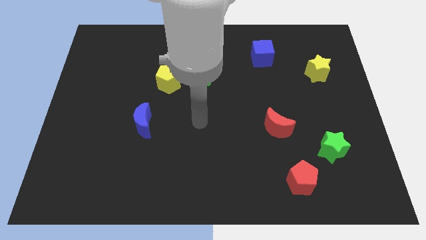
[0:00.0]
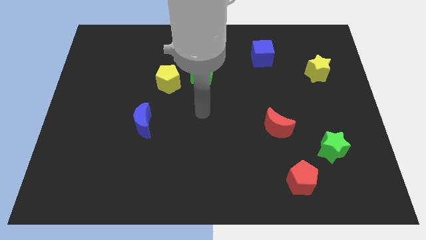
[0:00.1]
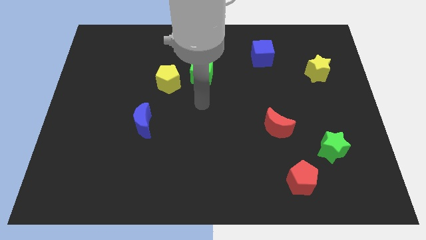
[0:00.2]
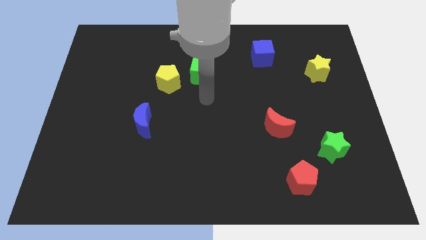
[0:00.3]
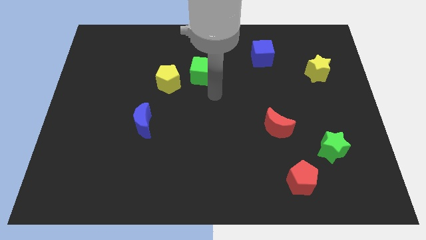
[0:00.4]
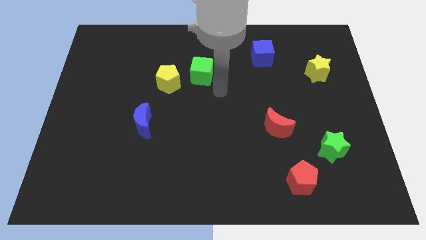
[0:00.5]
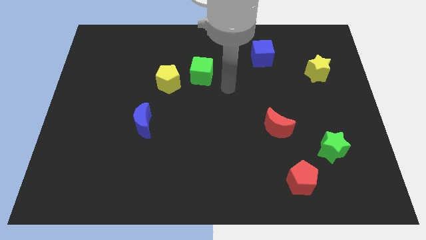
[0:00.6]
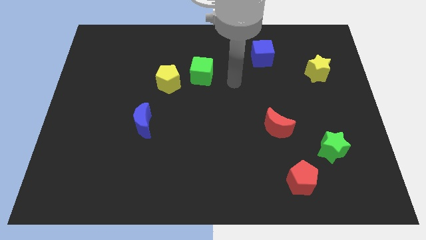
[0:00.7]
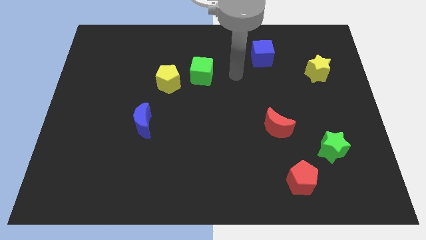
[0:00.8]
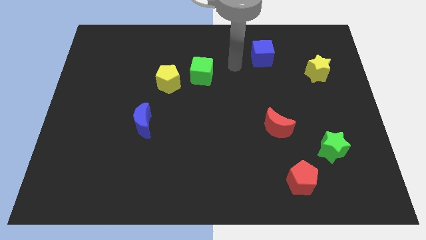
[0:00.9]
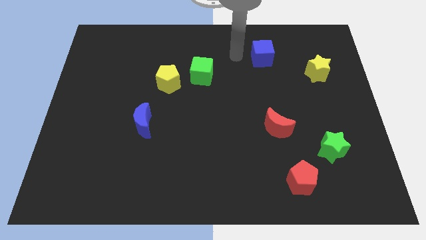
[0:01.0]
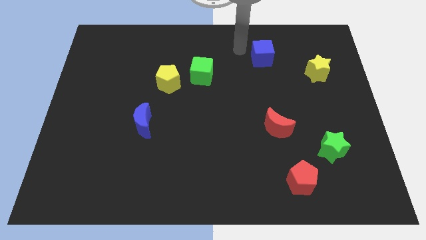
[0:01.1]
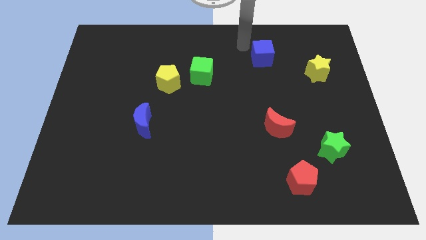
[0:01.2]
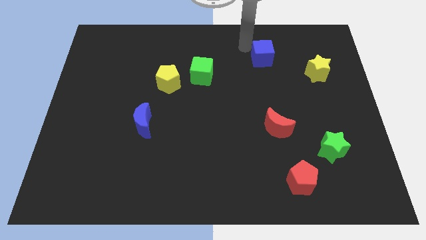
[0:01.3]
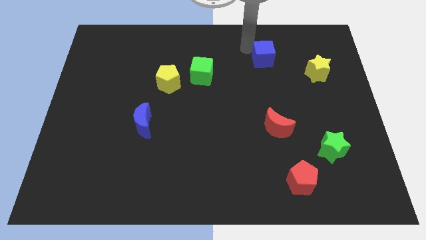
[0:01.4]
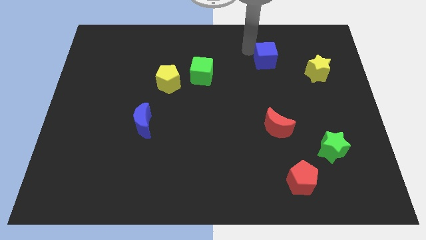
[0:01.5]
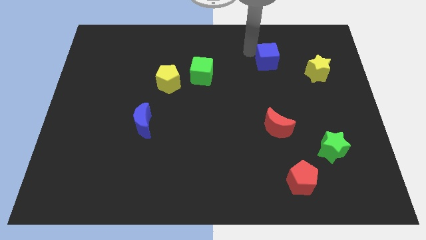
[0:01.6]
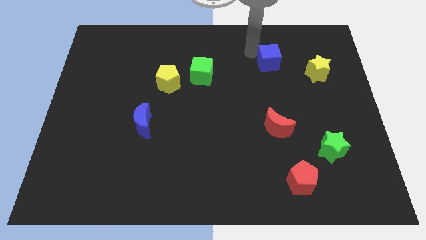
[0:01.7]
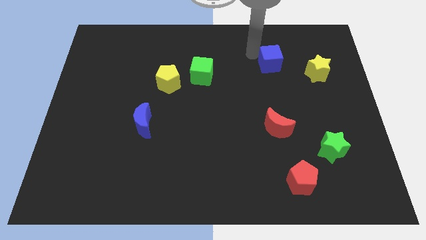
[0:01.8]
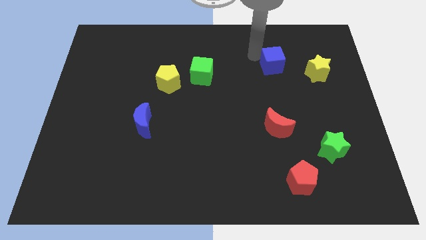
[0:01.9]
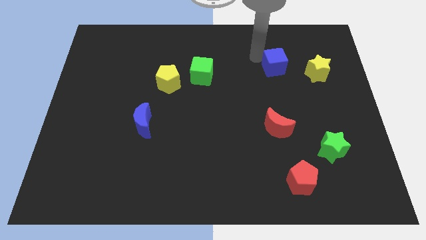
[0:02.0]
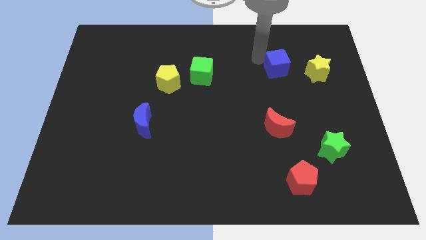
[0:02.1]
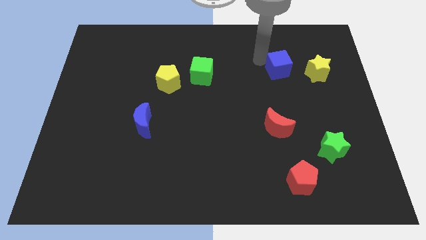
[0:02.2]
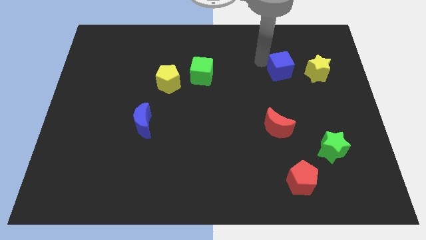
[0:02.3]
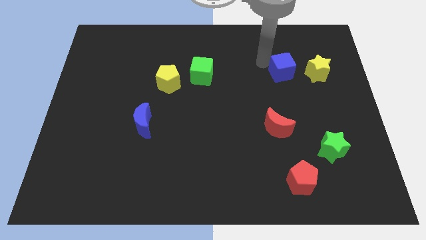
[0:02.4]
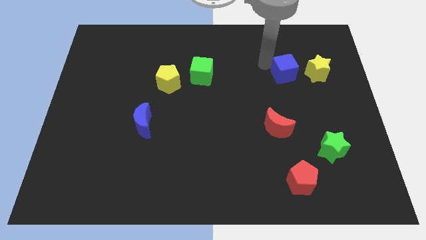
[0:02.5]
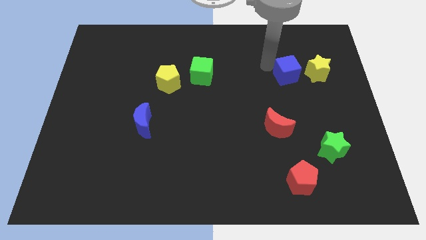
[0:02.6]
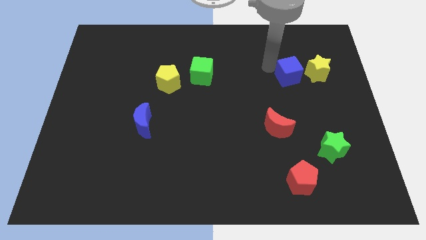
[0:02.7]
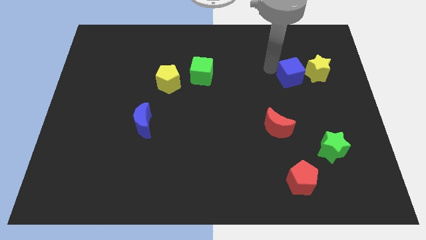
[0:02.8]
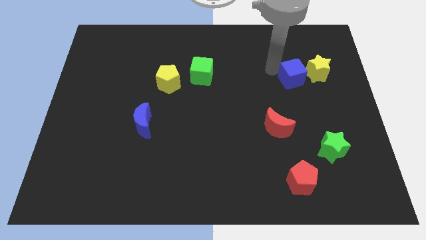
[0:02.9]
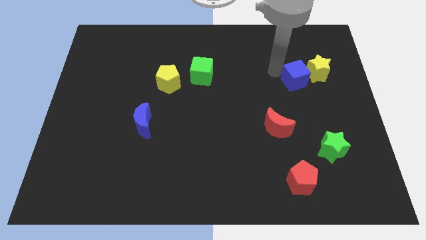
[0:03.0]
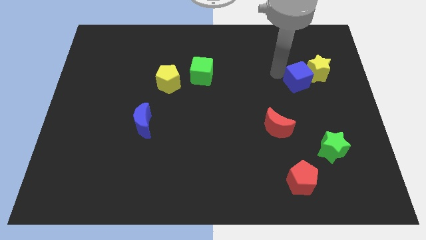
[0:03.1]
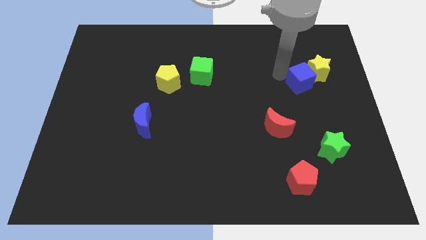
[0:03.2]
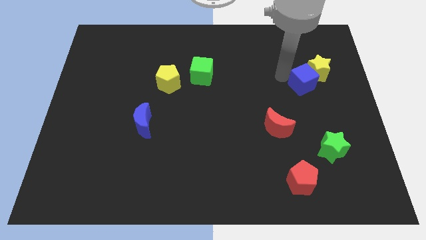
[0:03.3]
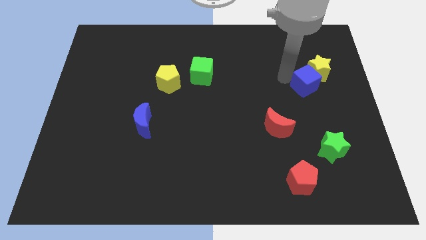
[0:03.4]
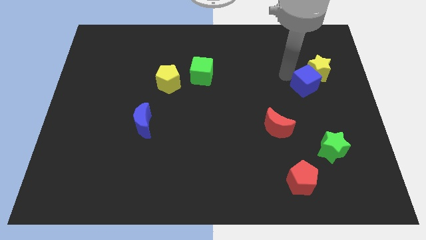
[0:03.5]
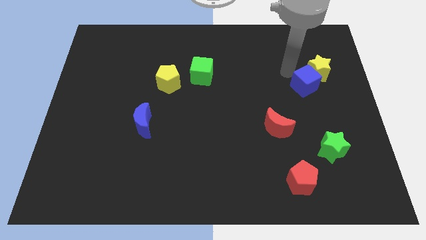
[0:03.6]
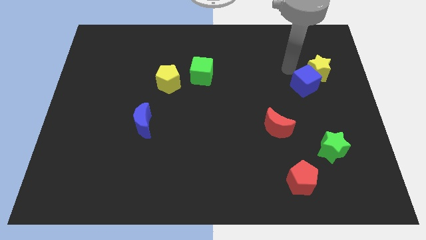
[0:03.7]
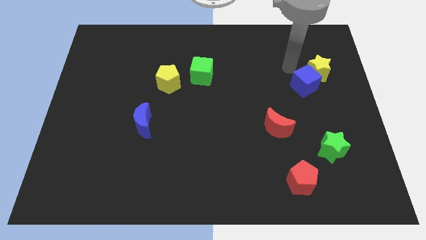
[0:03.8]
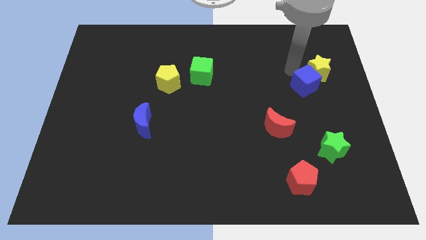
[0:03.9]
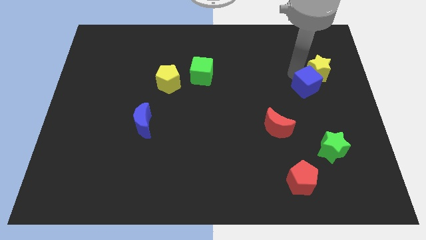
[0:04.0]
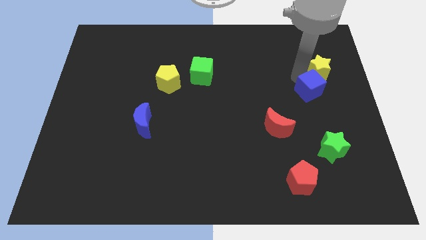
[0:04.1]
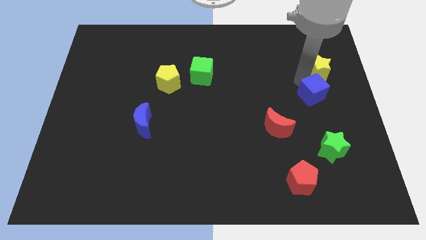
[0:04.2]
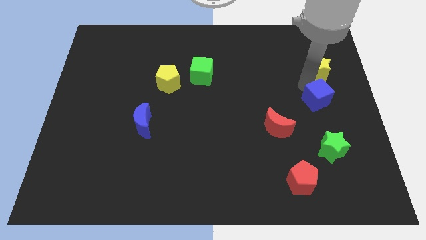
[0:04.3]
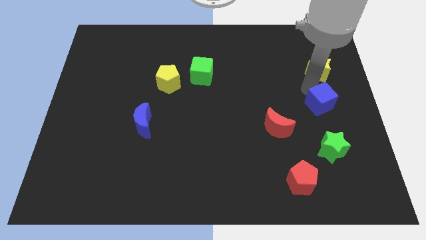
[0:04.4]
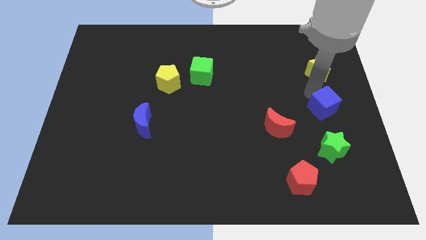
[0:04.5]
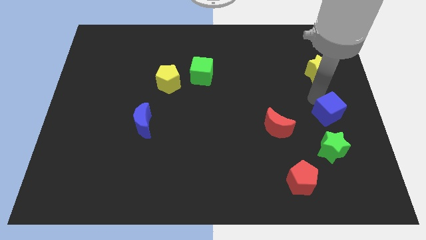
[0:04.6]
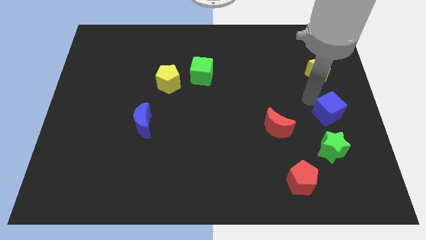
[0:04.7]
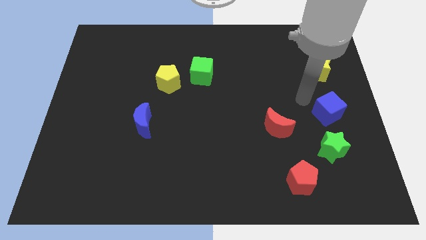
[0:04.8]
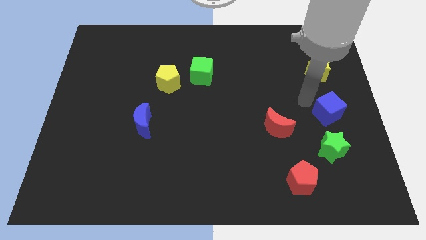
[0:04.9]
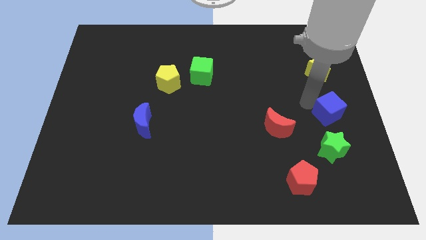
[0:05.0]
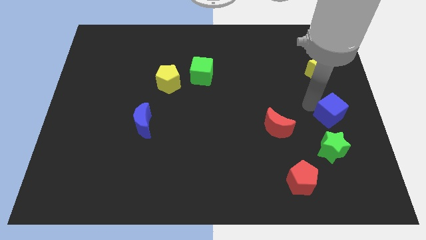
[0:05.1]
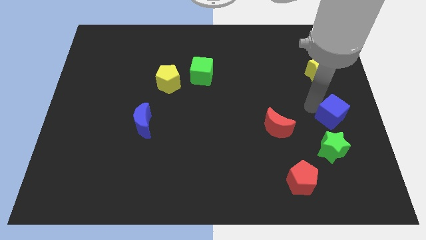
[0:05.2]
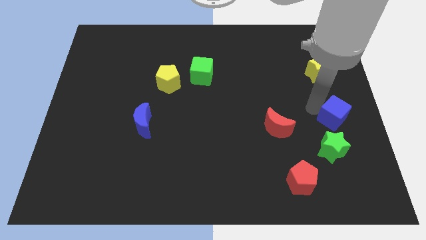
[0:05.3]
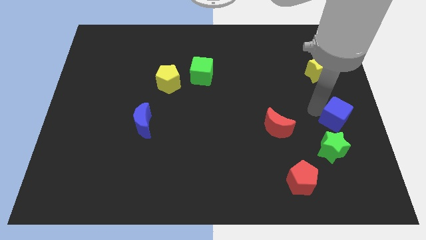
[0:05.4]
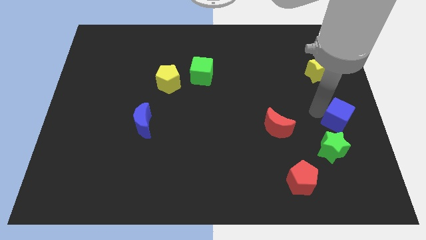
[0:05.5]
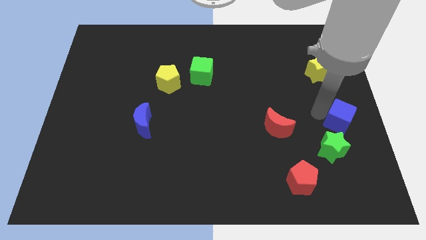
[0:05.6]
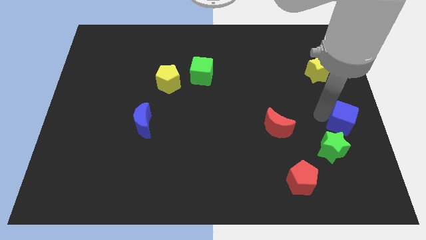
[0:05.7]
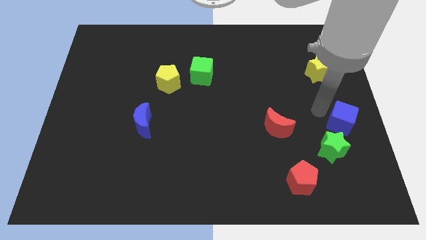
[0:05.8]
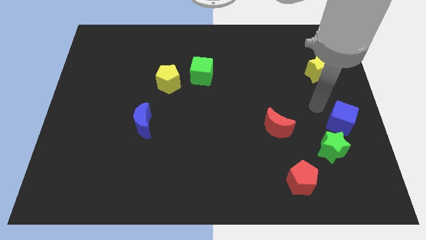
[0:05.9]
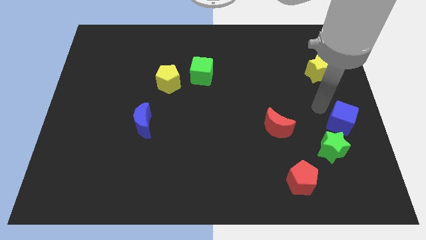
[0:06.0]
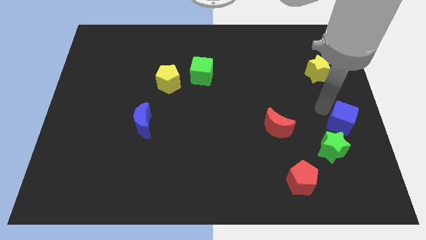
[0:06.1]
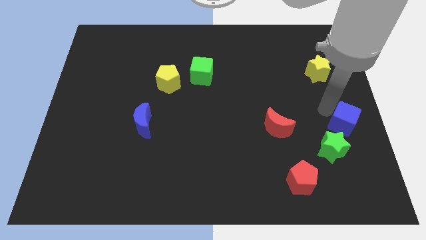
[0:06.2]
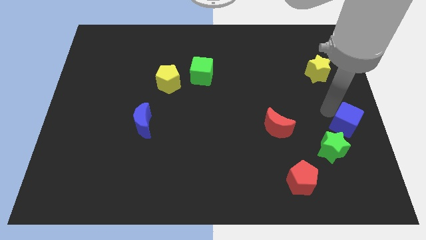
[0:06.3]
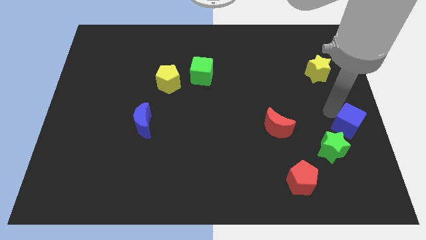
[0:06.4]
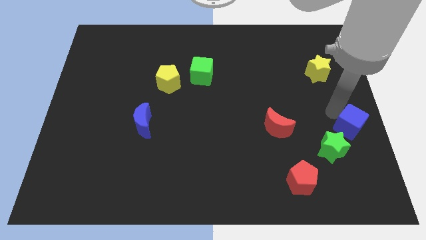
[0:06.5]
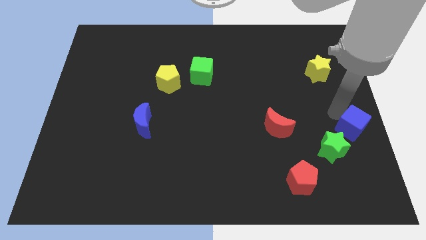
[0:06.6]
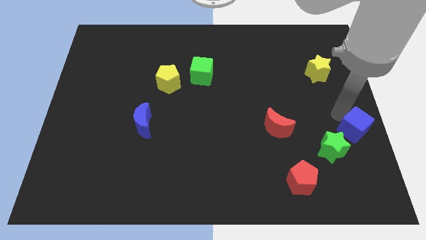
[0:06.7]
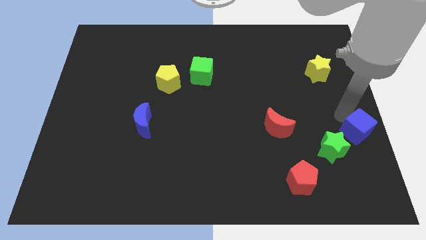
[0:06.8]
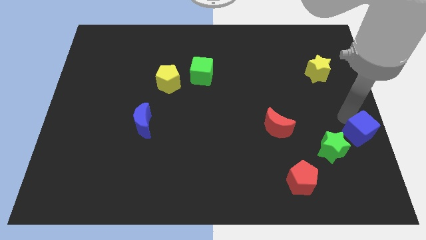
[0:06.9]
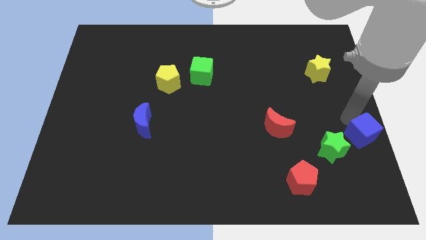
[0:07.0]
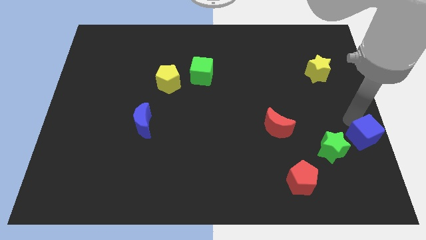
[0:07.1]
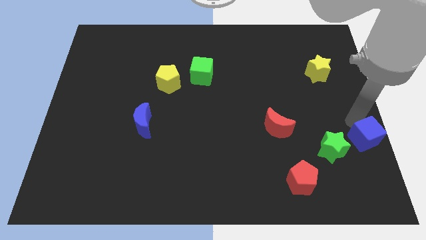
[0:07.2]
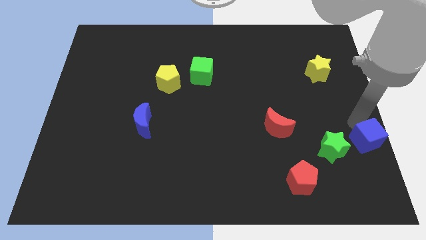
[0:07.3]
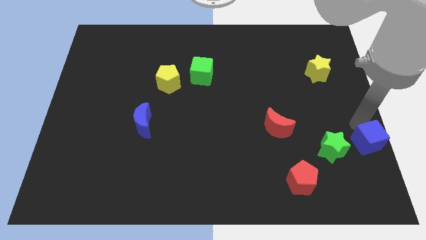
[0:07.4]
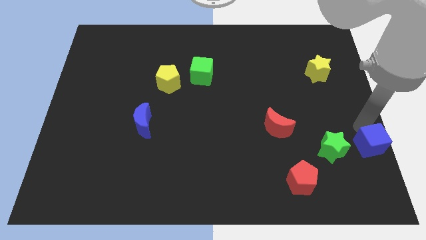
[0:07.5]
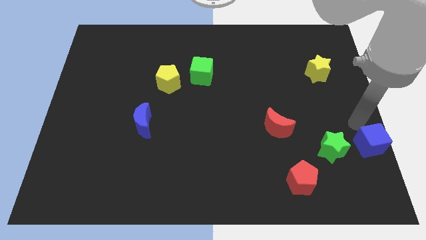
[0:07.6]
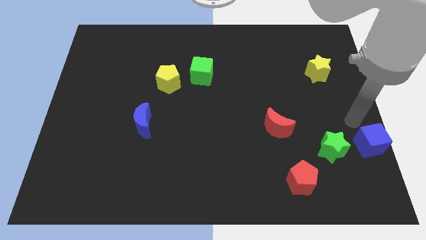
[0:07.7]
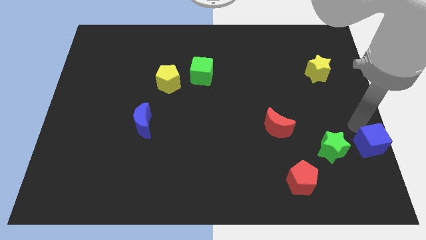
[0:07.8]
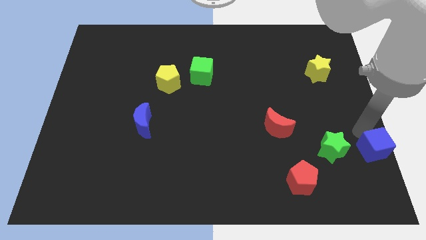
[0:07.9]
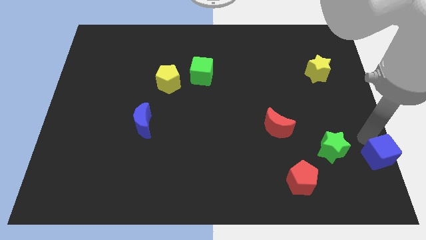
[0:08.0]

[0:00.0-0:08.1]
put the blue cube to the bottom right
